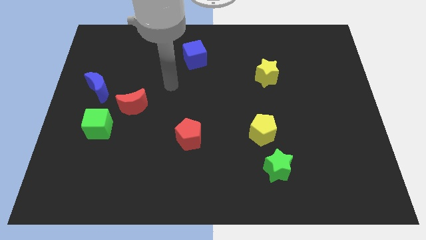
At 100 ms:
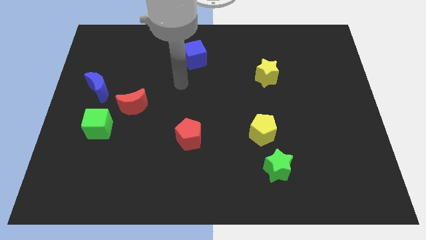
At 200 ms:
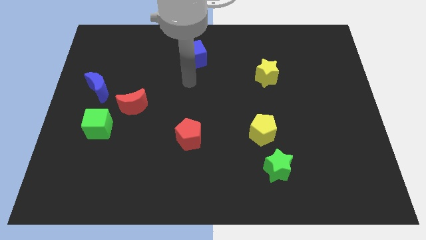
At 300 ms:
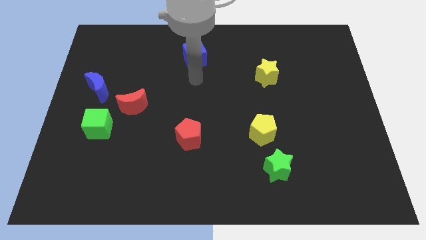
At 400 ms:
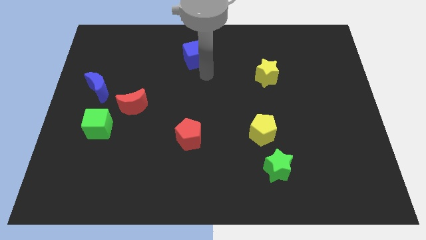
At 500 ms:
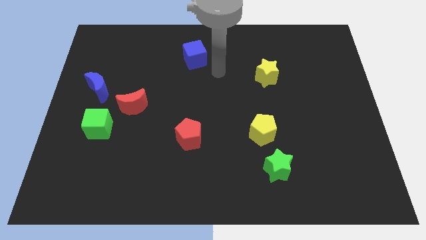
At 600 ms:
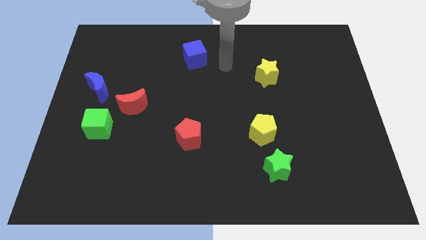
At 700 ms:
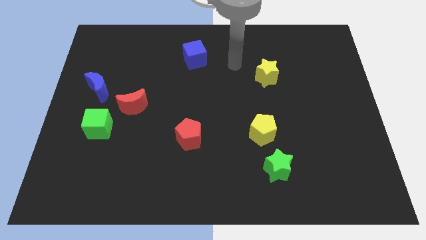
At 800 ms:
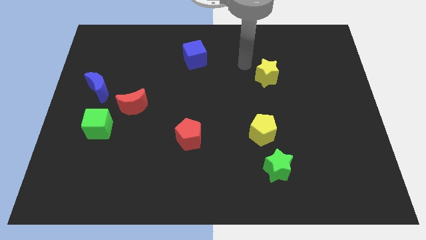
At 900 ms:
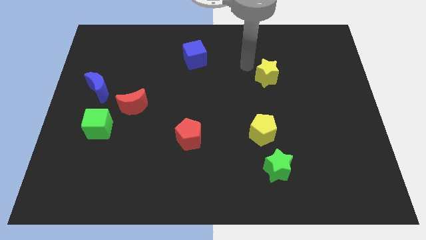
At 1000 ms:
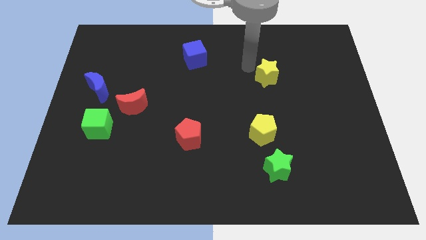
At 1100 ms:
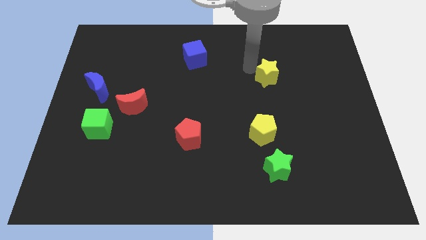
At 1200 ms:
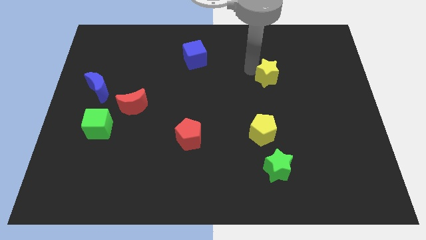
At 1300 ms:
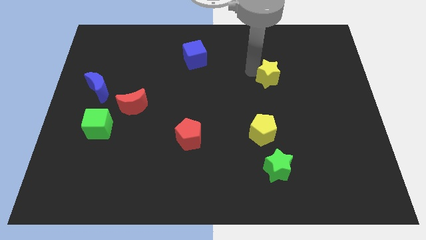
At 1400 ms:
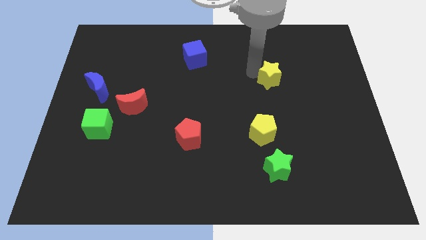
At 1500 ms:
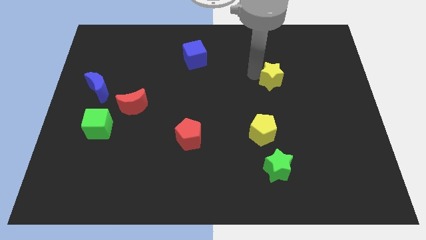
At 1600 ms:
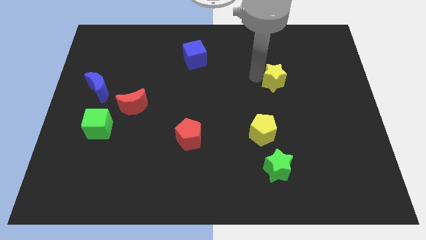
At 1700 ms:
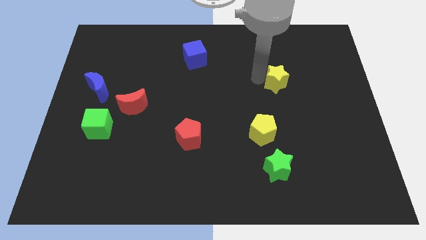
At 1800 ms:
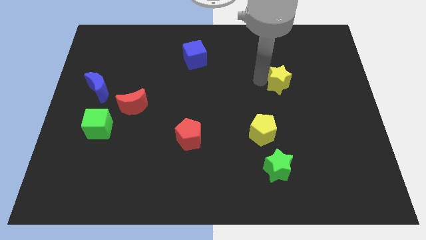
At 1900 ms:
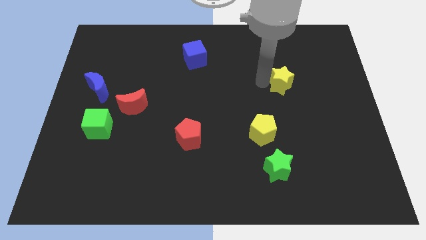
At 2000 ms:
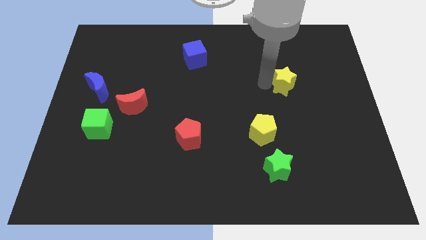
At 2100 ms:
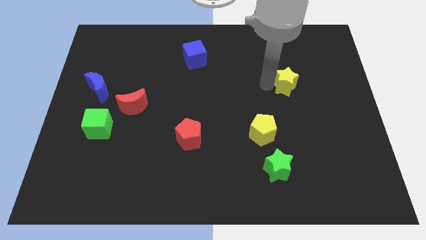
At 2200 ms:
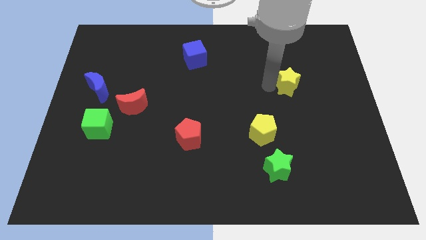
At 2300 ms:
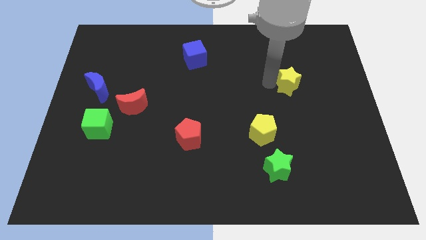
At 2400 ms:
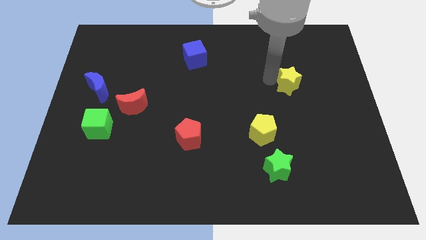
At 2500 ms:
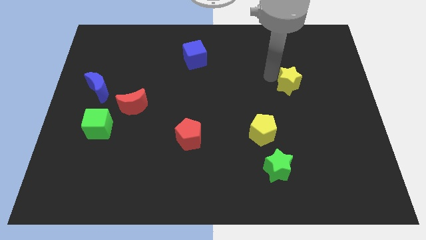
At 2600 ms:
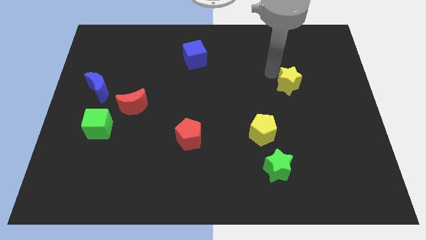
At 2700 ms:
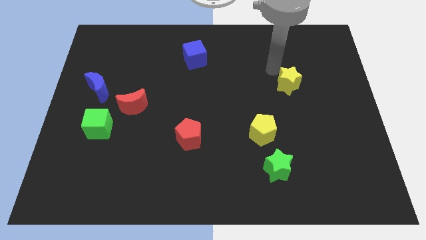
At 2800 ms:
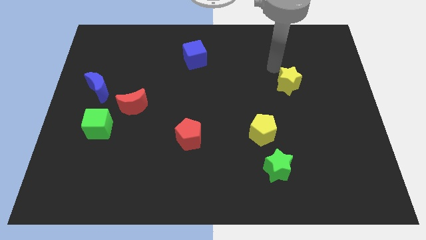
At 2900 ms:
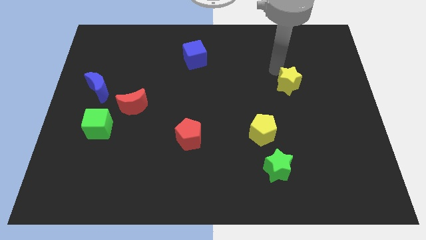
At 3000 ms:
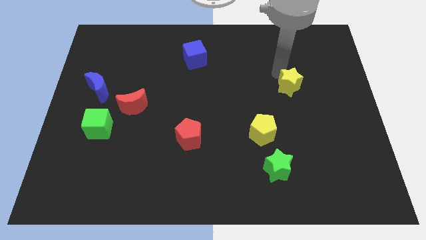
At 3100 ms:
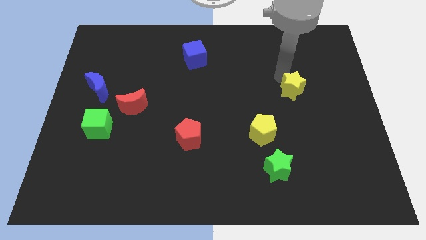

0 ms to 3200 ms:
push the yellow star a bit downwards and right

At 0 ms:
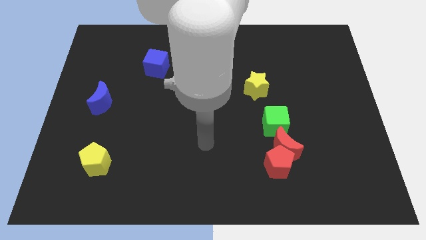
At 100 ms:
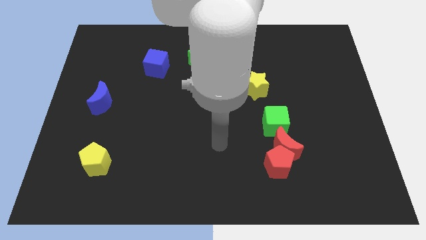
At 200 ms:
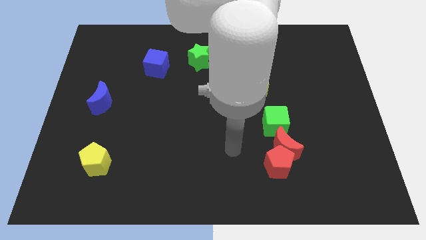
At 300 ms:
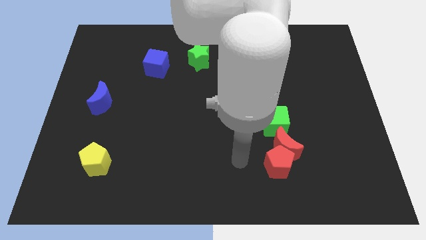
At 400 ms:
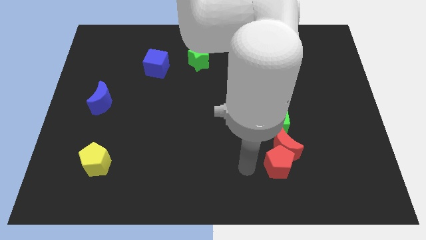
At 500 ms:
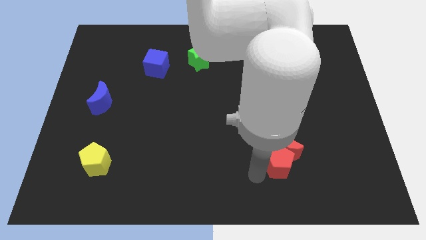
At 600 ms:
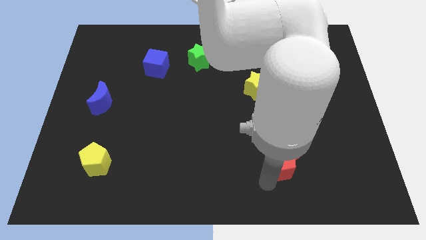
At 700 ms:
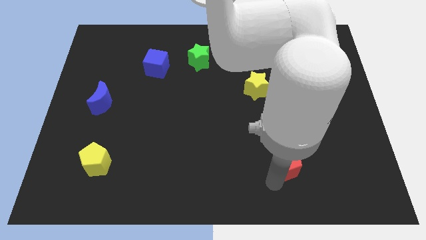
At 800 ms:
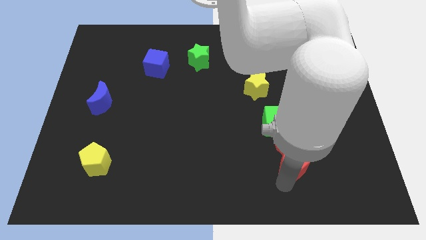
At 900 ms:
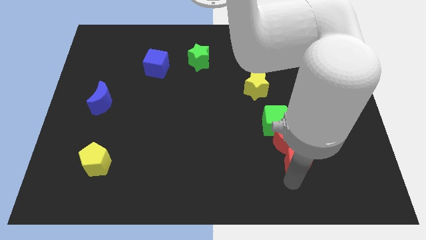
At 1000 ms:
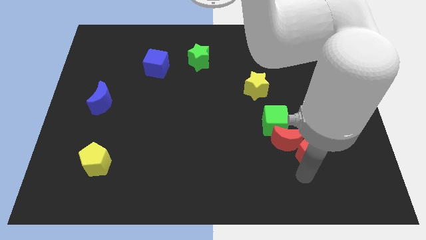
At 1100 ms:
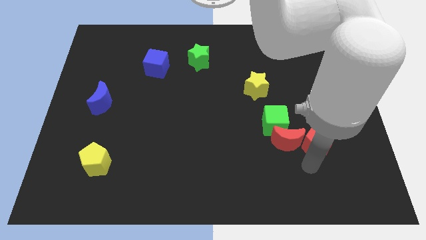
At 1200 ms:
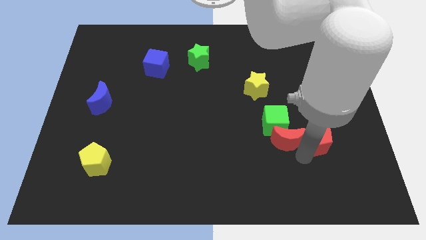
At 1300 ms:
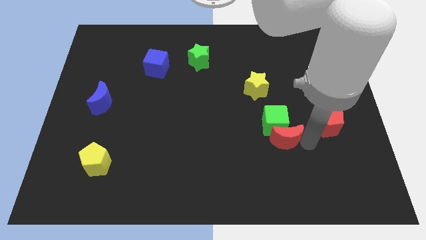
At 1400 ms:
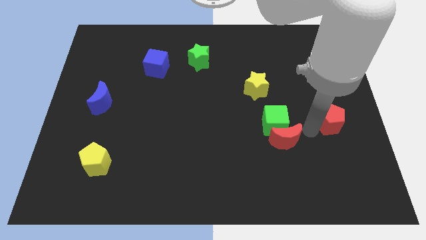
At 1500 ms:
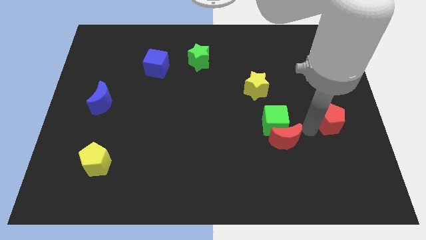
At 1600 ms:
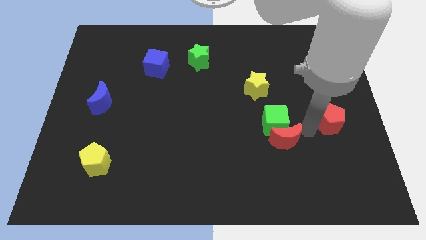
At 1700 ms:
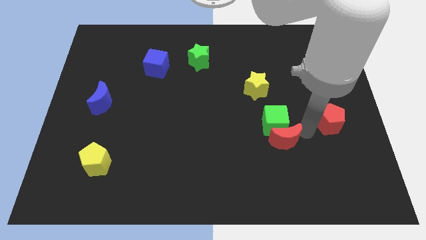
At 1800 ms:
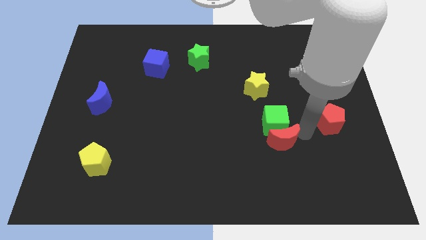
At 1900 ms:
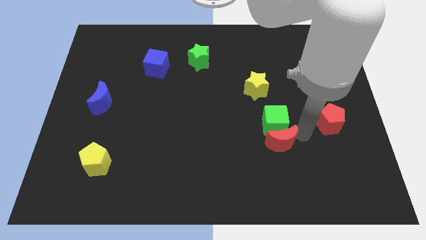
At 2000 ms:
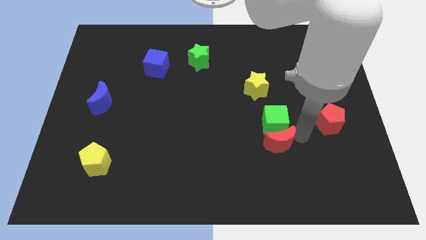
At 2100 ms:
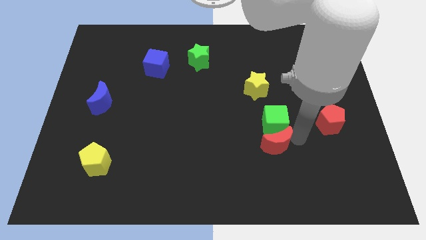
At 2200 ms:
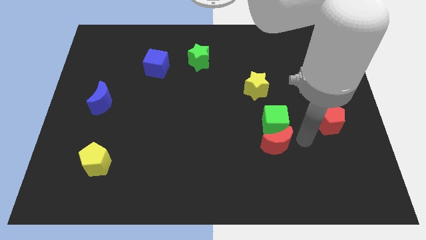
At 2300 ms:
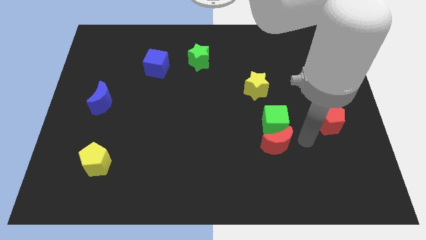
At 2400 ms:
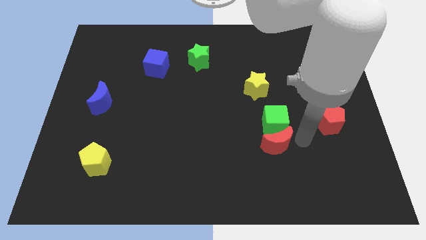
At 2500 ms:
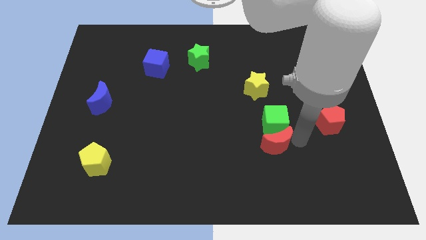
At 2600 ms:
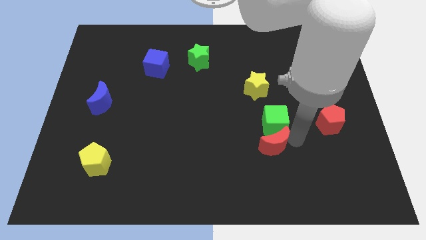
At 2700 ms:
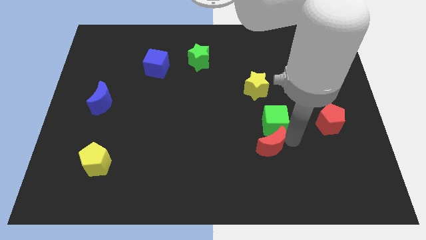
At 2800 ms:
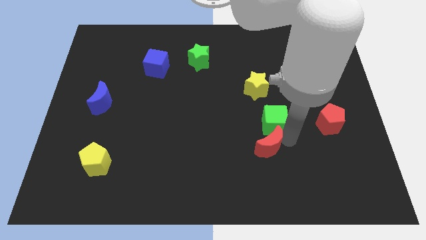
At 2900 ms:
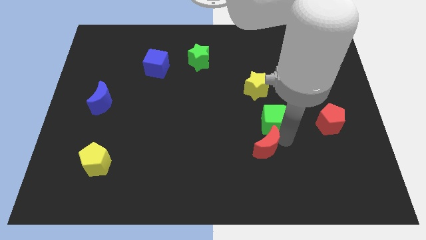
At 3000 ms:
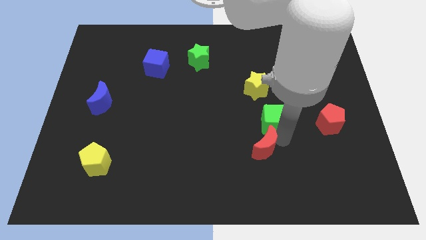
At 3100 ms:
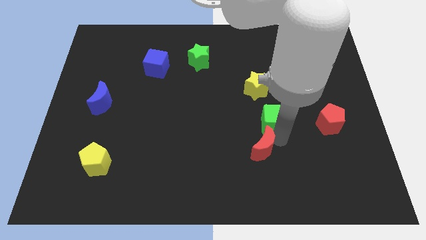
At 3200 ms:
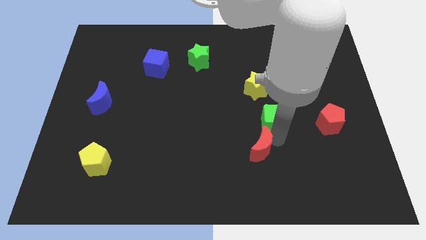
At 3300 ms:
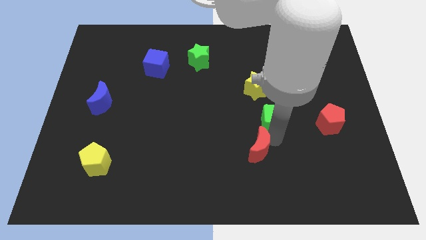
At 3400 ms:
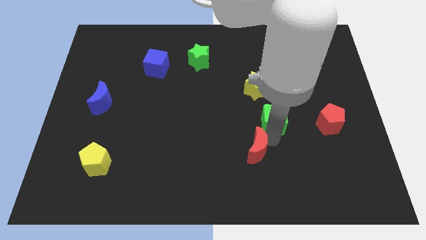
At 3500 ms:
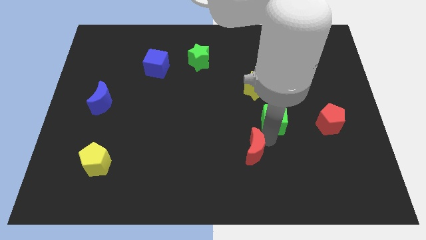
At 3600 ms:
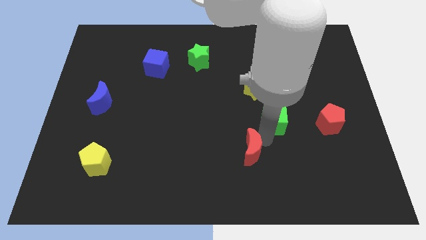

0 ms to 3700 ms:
slightly move the red moon left

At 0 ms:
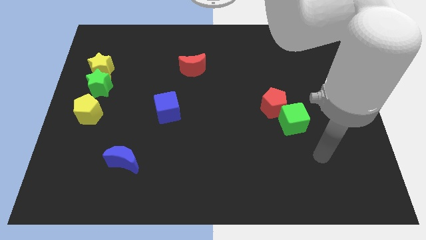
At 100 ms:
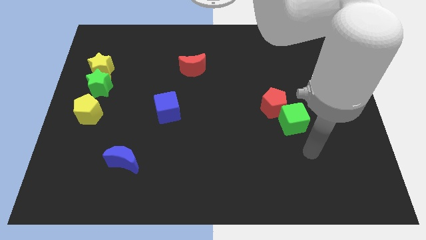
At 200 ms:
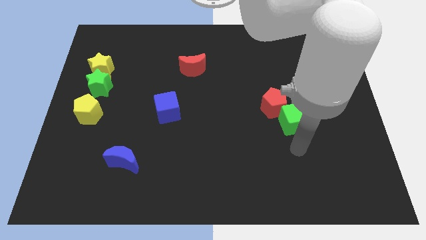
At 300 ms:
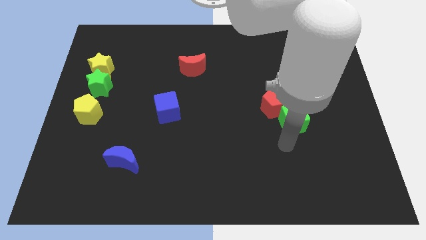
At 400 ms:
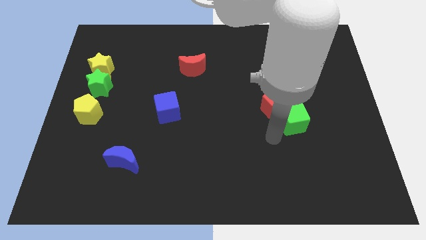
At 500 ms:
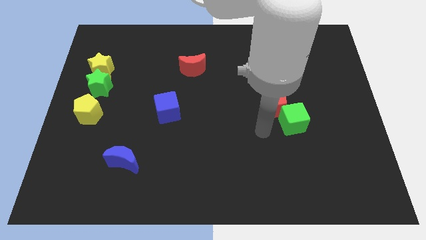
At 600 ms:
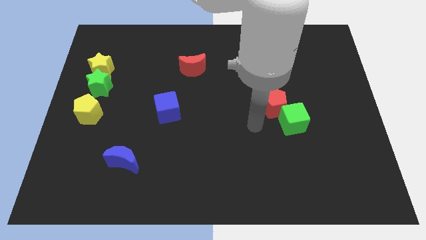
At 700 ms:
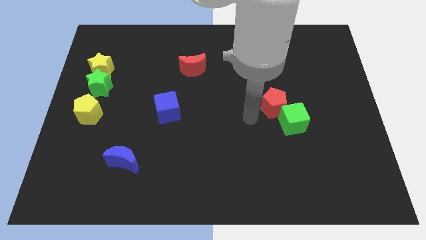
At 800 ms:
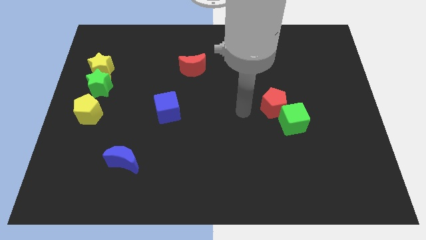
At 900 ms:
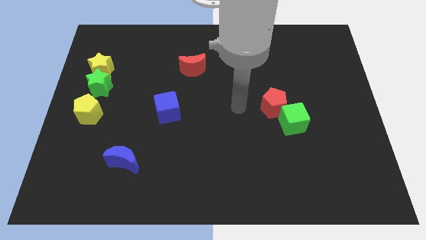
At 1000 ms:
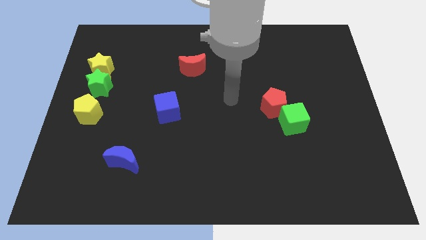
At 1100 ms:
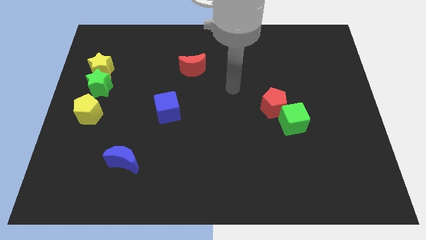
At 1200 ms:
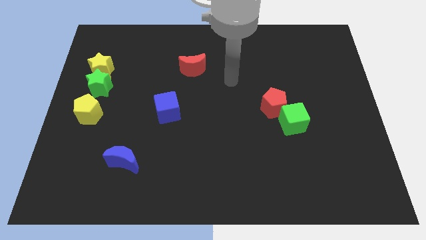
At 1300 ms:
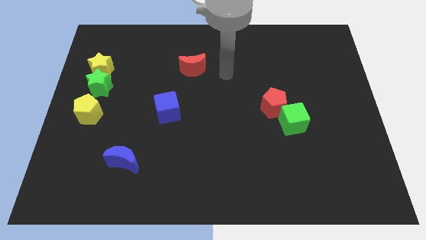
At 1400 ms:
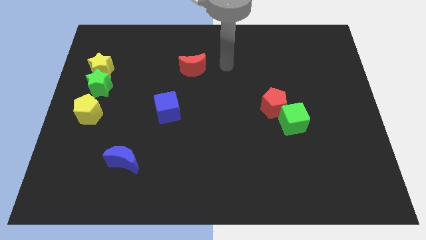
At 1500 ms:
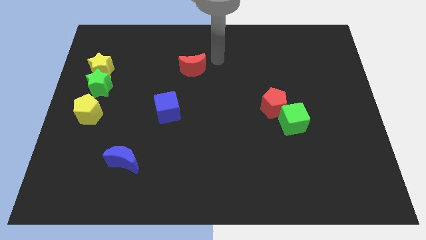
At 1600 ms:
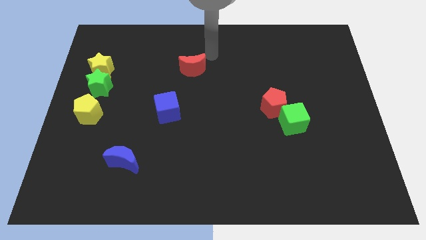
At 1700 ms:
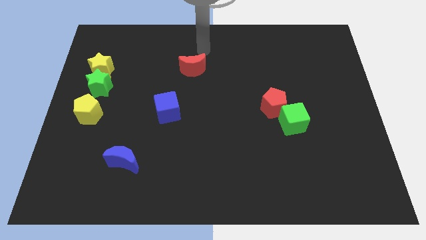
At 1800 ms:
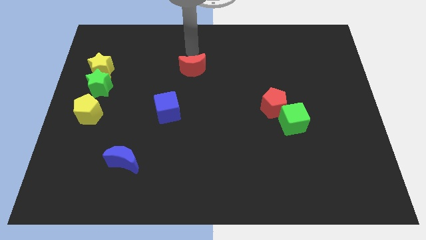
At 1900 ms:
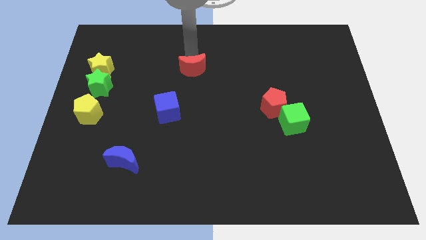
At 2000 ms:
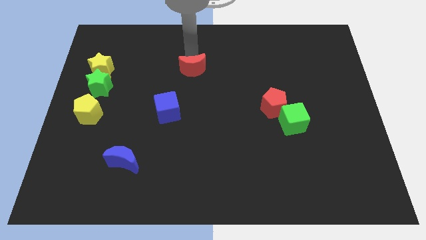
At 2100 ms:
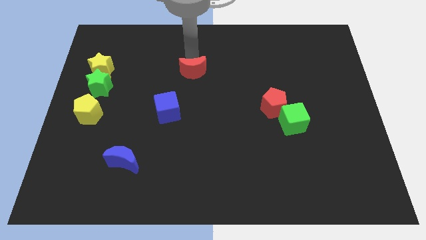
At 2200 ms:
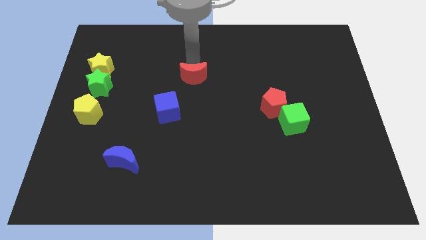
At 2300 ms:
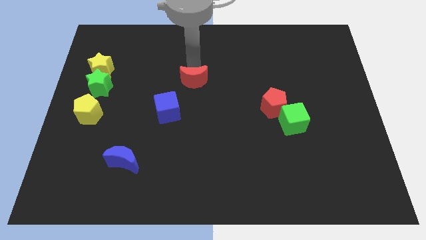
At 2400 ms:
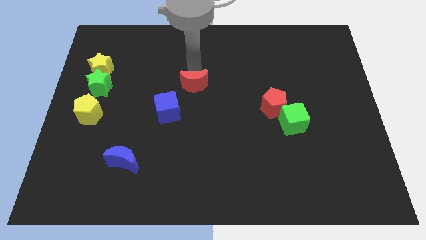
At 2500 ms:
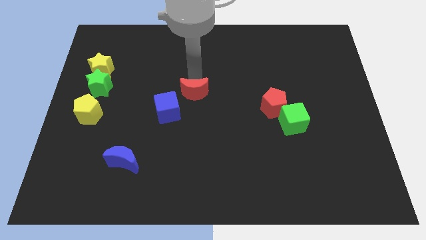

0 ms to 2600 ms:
push the red moon down a little
